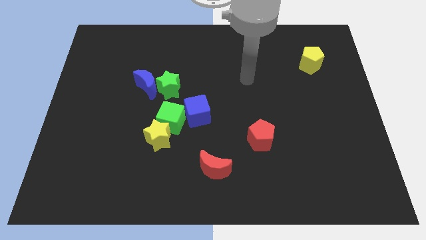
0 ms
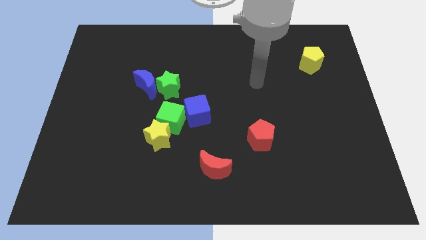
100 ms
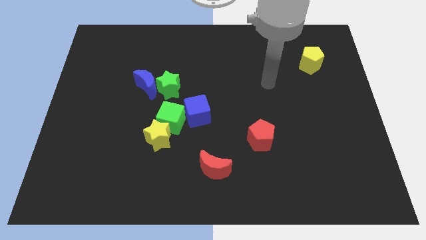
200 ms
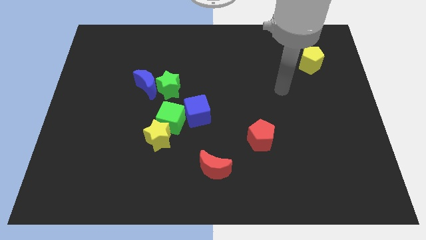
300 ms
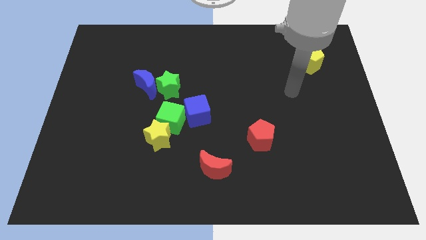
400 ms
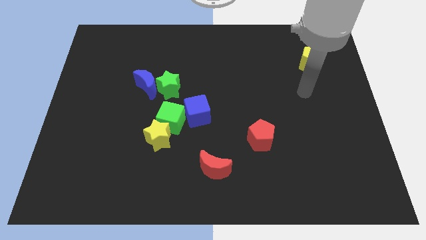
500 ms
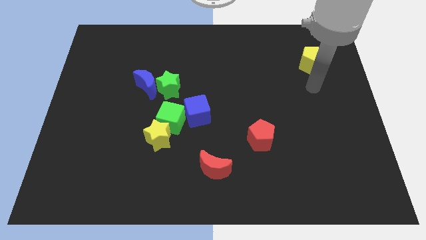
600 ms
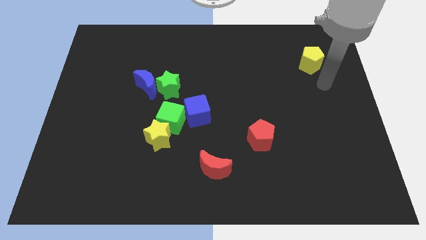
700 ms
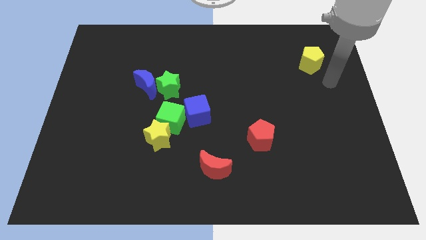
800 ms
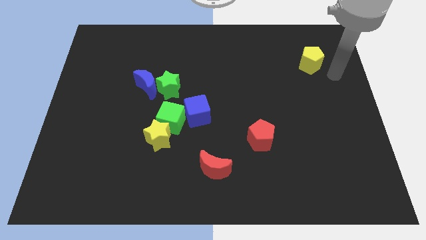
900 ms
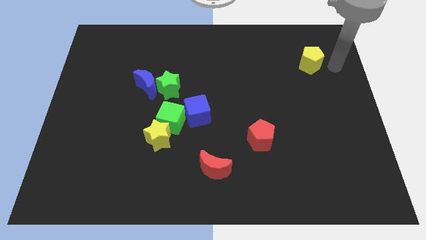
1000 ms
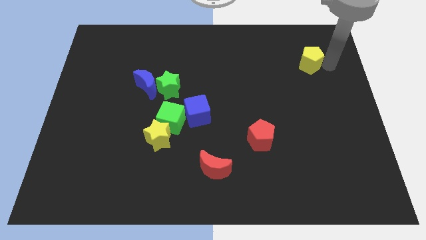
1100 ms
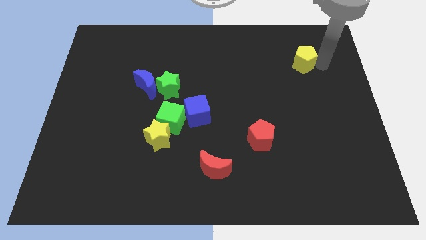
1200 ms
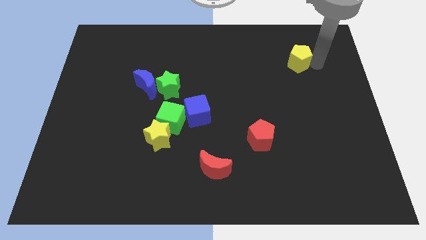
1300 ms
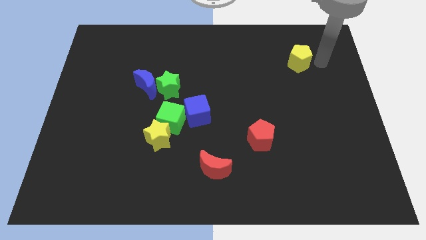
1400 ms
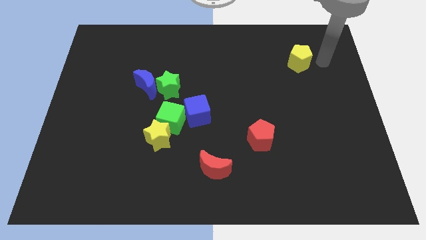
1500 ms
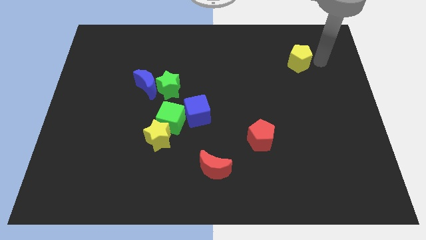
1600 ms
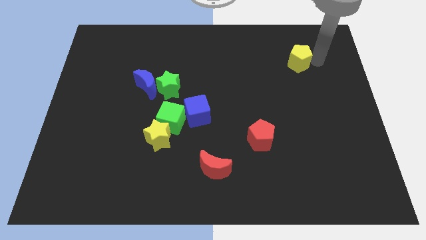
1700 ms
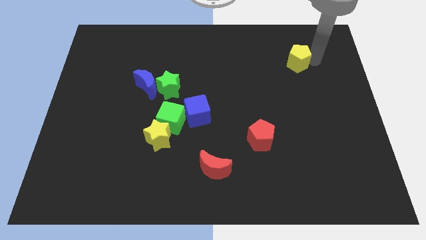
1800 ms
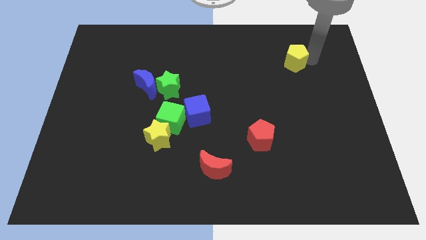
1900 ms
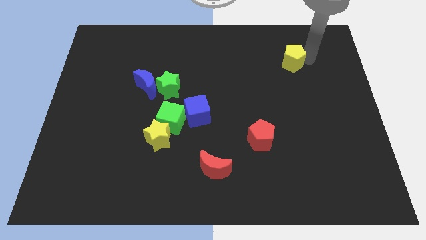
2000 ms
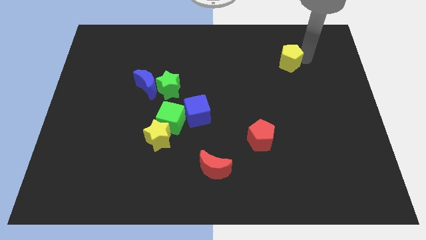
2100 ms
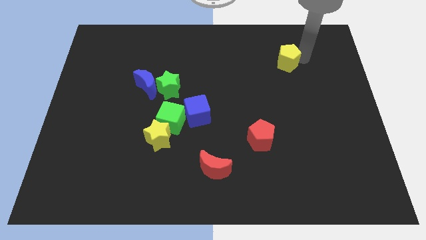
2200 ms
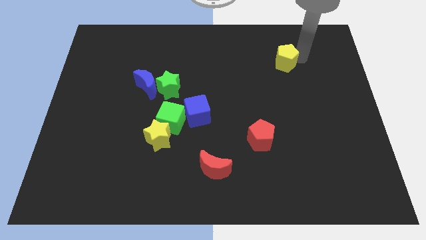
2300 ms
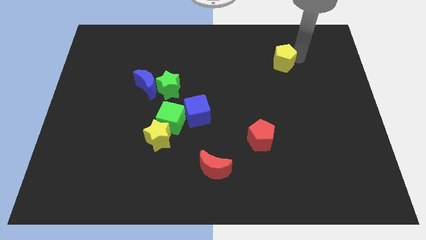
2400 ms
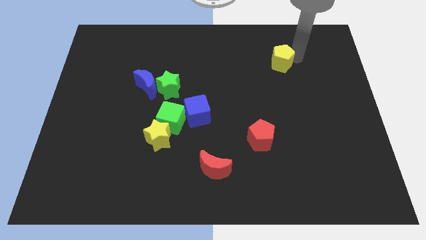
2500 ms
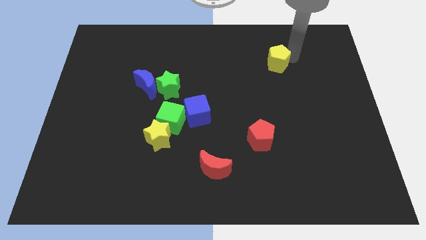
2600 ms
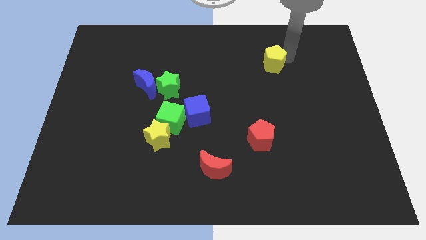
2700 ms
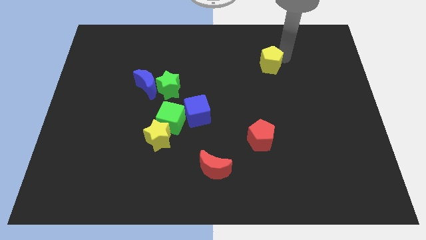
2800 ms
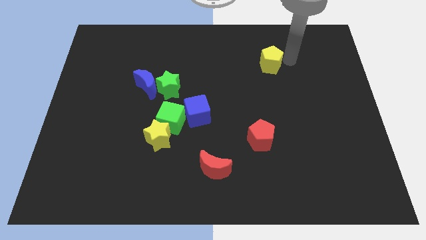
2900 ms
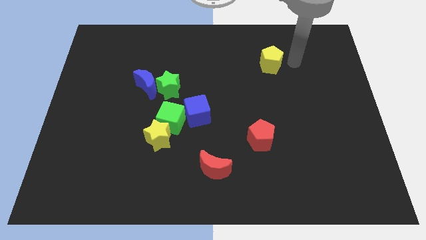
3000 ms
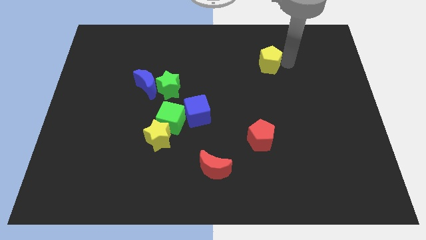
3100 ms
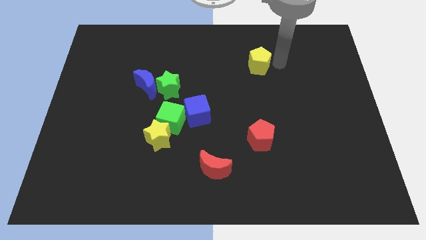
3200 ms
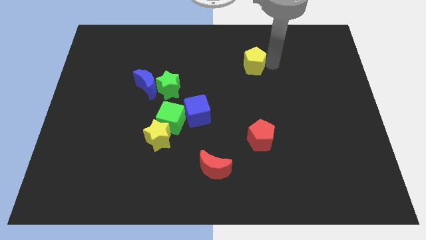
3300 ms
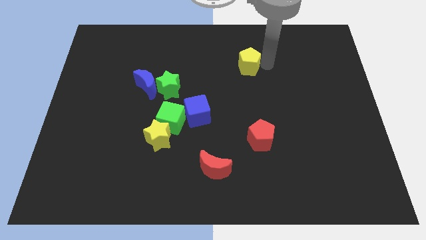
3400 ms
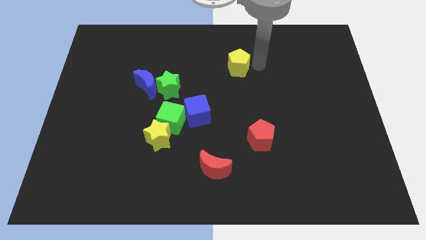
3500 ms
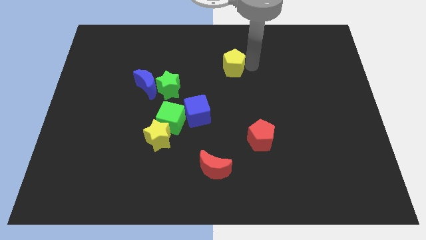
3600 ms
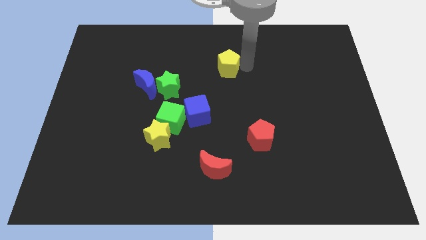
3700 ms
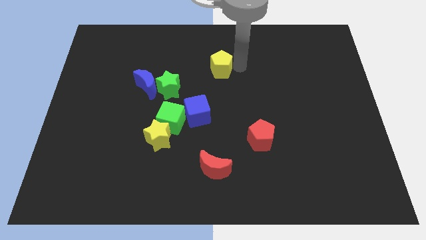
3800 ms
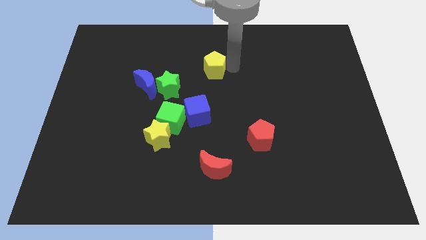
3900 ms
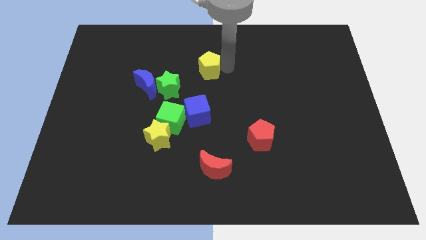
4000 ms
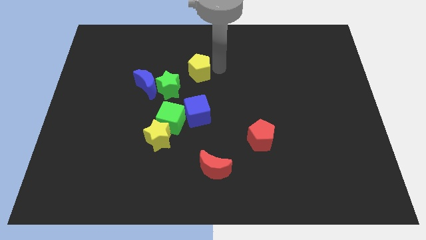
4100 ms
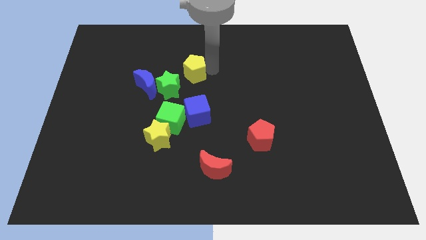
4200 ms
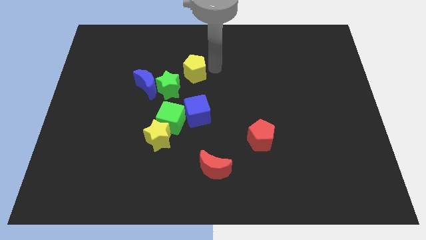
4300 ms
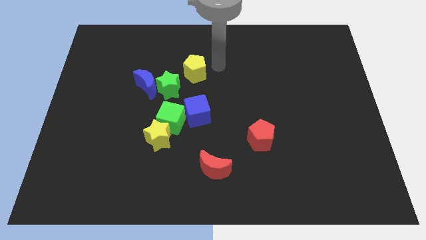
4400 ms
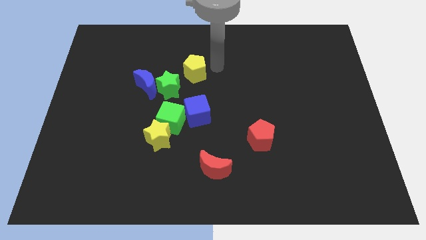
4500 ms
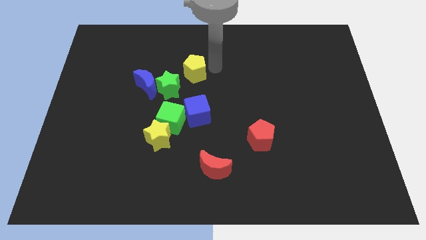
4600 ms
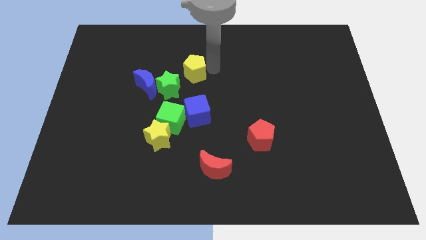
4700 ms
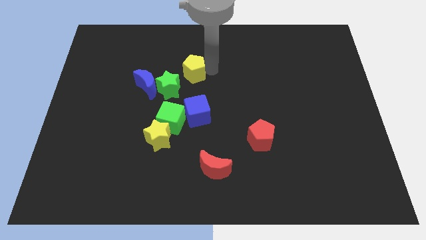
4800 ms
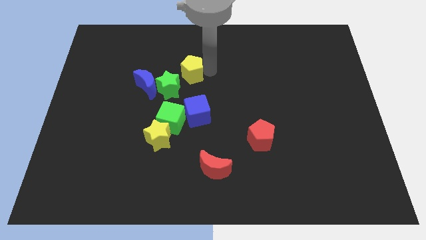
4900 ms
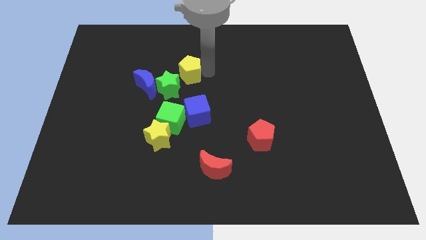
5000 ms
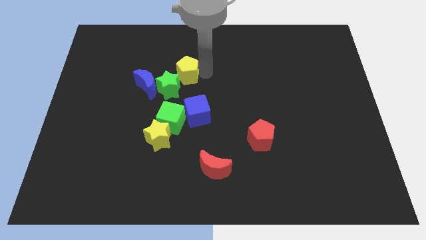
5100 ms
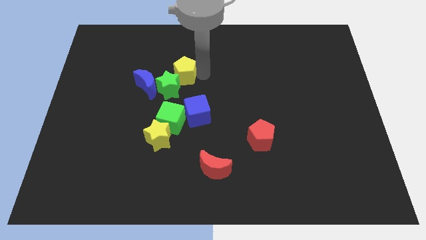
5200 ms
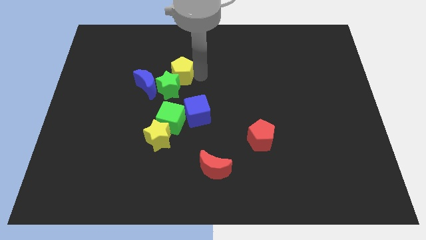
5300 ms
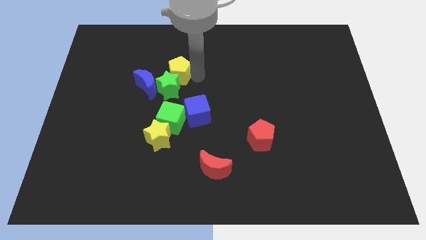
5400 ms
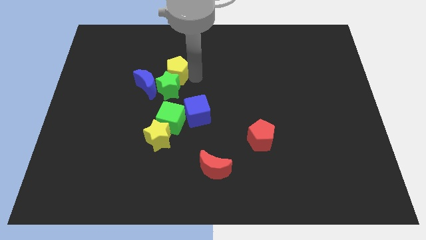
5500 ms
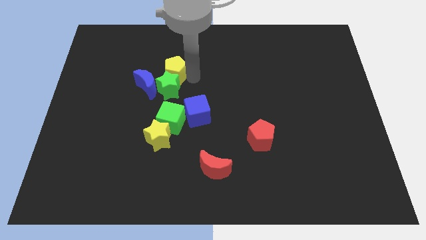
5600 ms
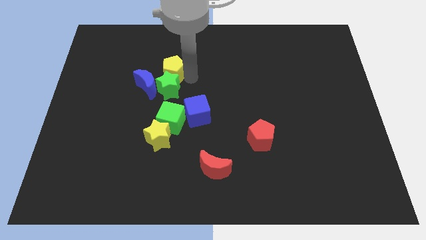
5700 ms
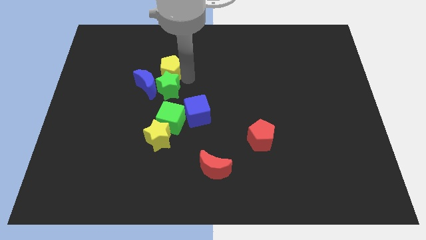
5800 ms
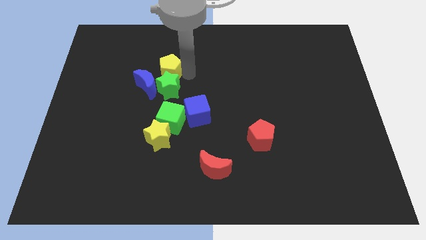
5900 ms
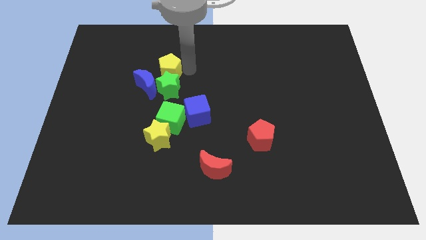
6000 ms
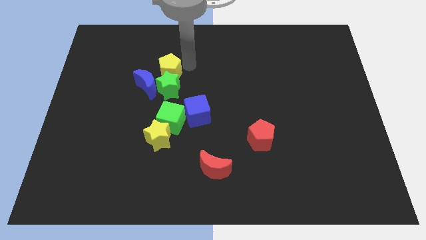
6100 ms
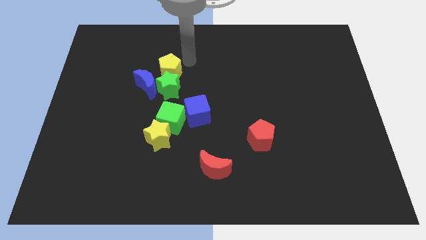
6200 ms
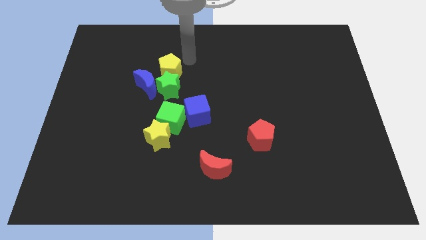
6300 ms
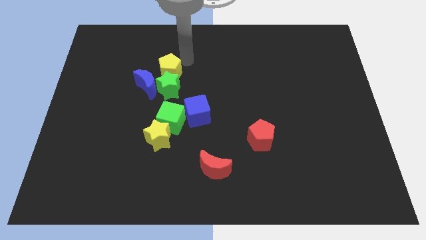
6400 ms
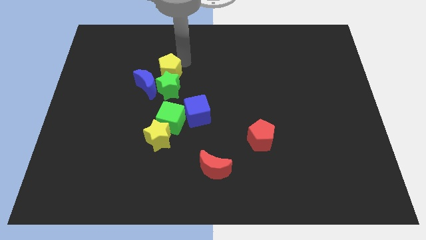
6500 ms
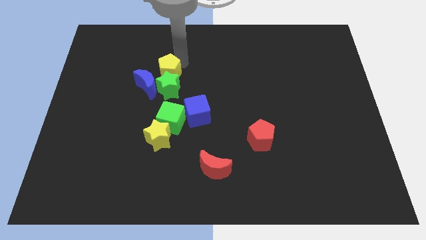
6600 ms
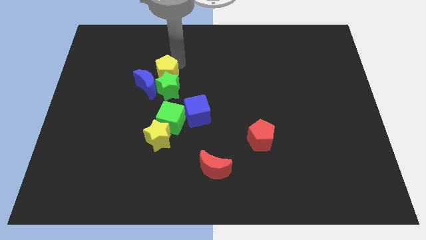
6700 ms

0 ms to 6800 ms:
push the yellow pentagon close to the blue moon
